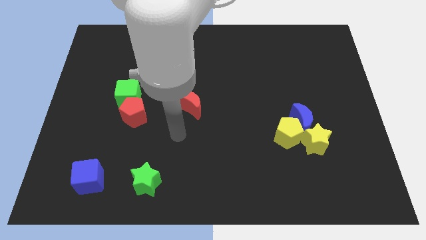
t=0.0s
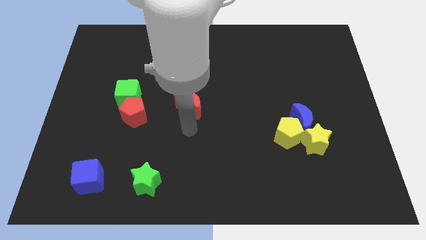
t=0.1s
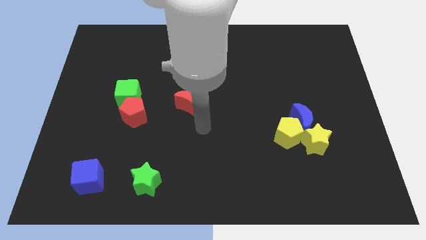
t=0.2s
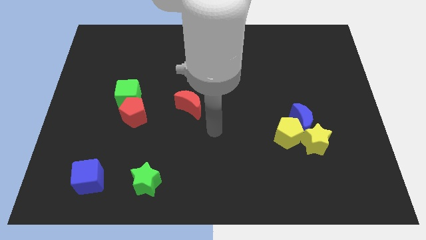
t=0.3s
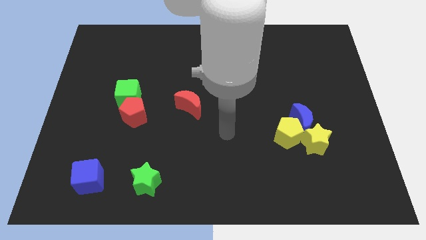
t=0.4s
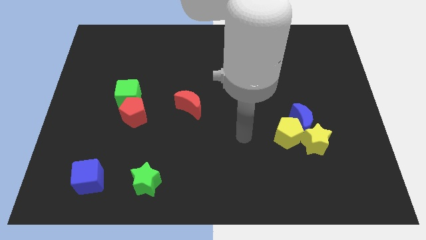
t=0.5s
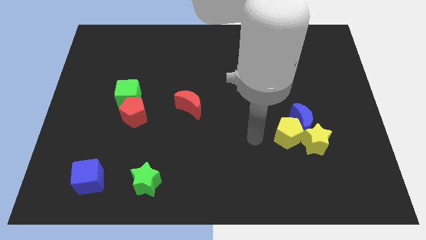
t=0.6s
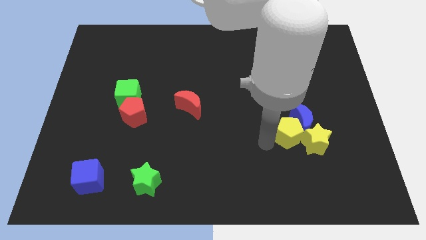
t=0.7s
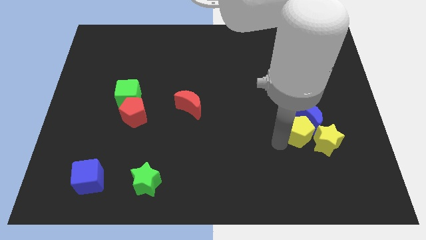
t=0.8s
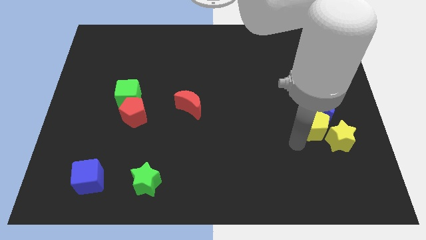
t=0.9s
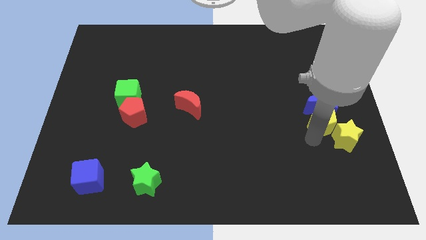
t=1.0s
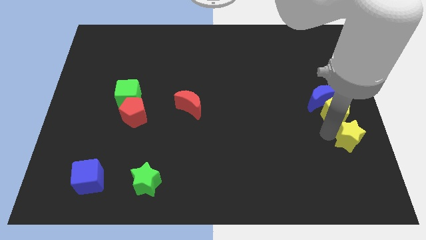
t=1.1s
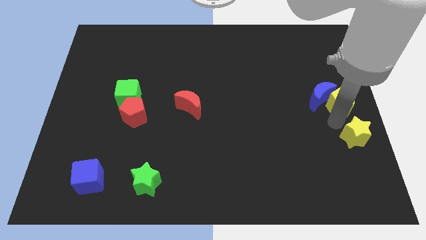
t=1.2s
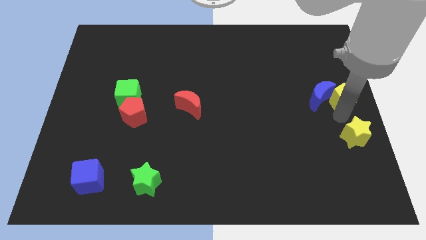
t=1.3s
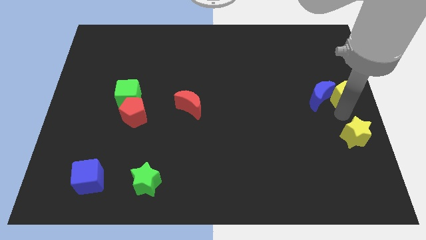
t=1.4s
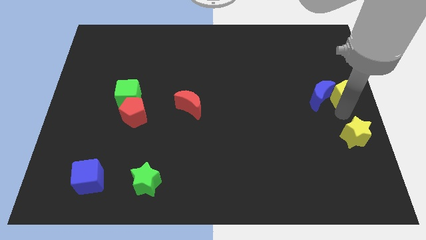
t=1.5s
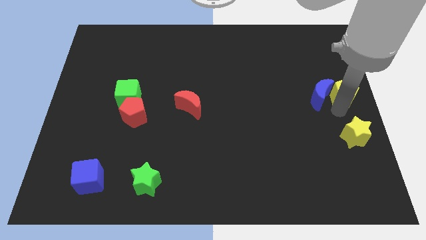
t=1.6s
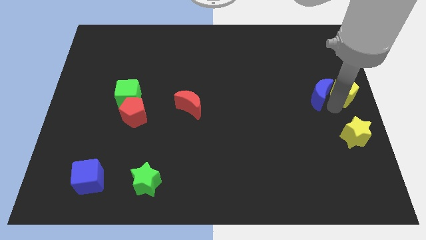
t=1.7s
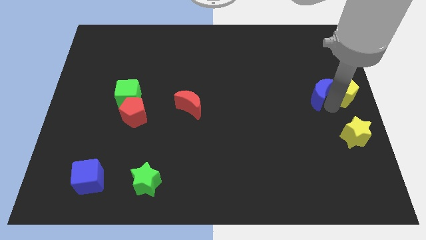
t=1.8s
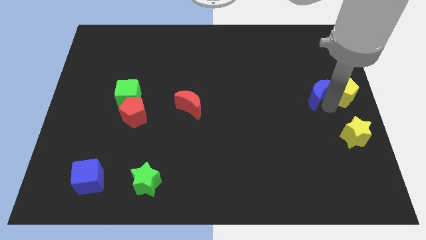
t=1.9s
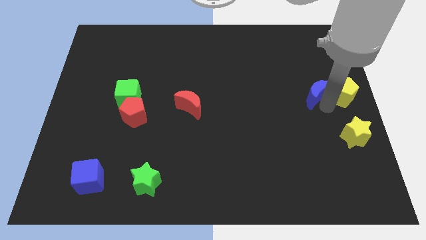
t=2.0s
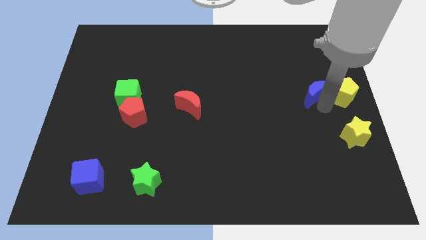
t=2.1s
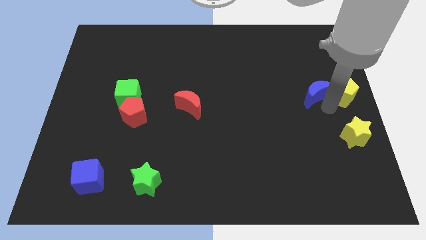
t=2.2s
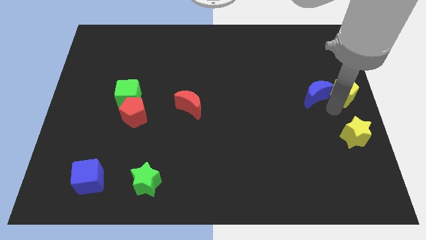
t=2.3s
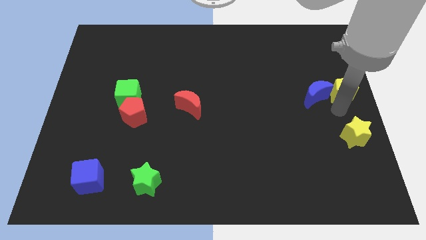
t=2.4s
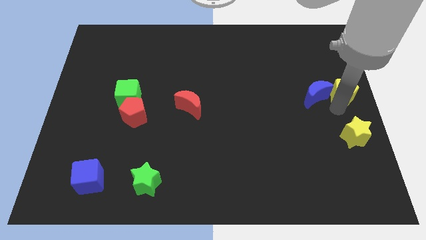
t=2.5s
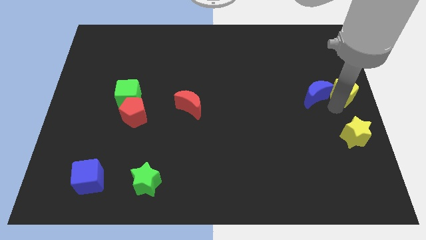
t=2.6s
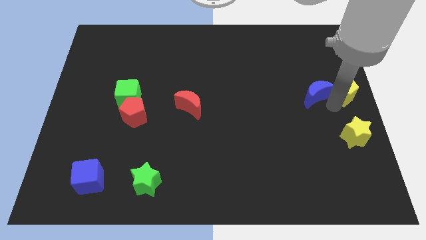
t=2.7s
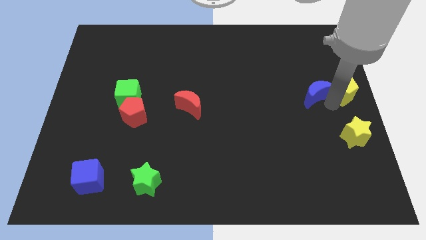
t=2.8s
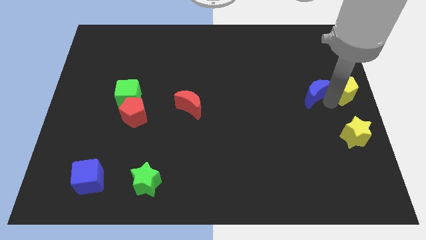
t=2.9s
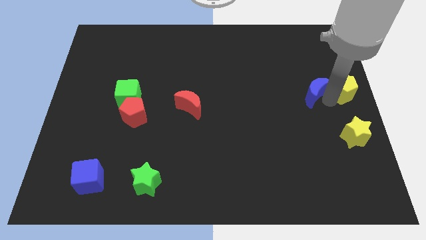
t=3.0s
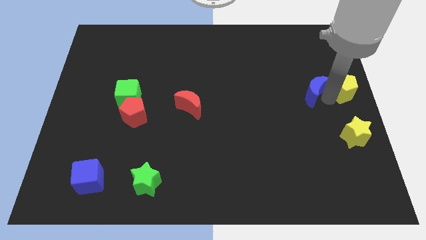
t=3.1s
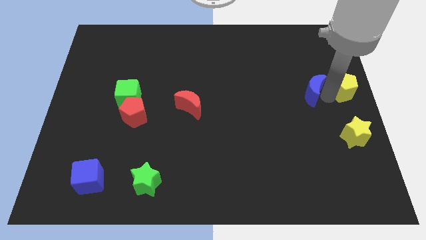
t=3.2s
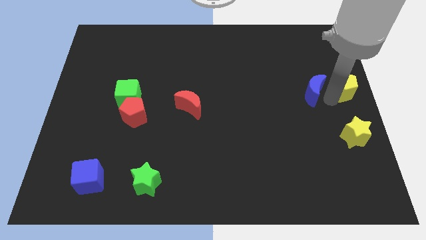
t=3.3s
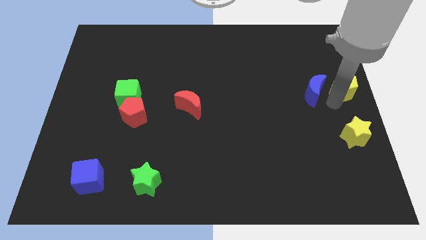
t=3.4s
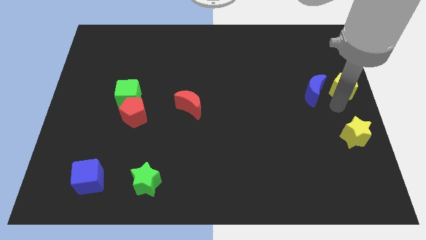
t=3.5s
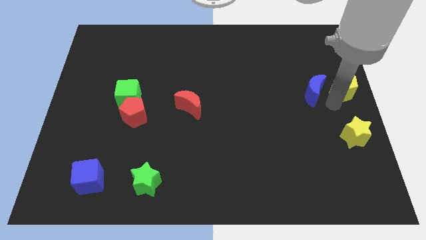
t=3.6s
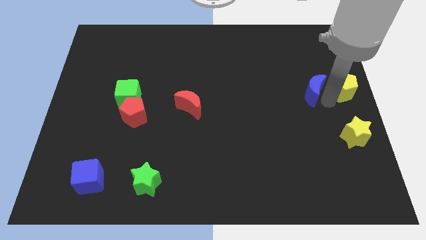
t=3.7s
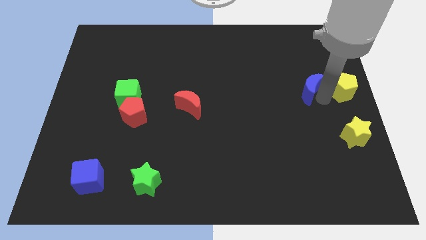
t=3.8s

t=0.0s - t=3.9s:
move the blue moon away from the yellow pentagon and yellow star

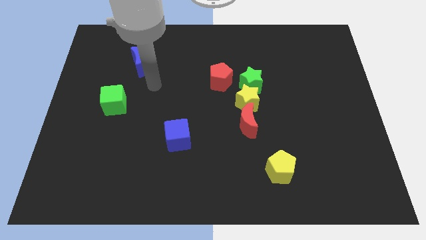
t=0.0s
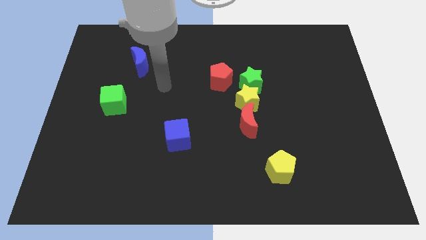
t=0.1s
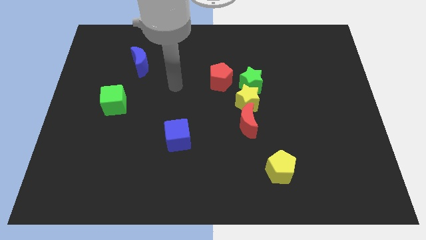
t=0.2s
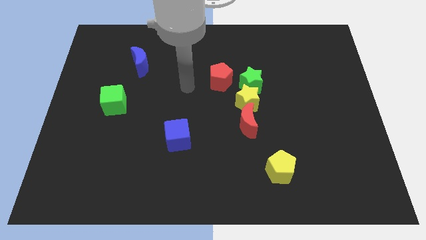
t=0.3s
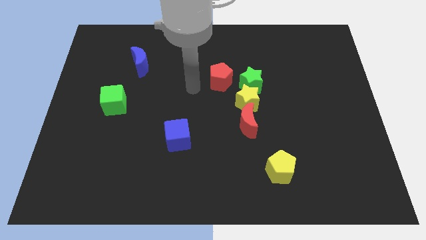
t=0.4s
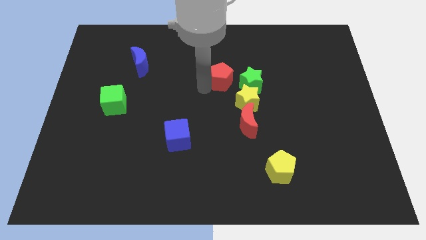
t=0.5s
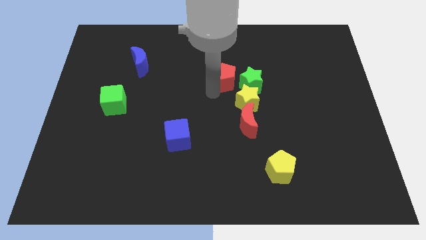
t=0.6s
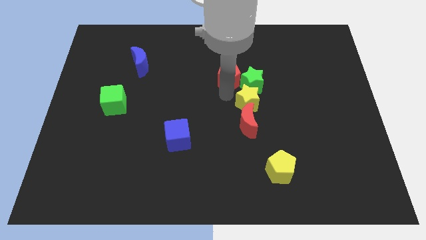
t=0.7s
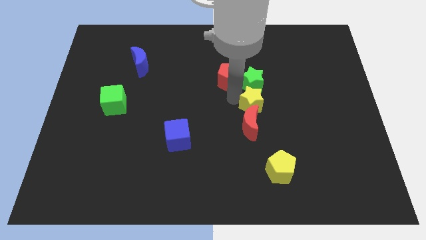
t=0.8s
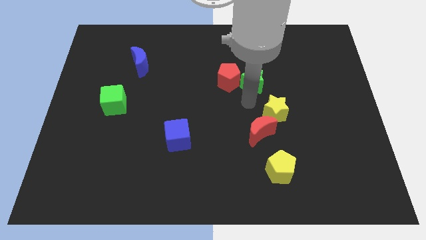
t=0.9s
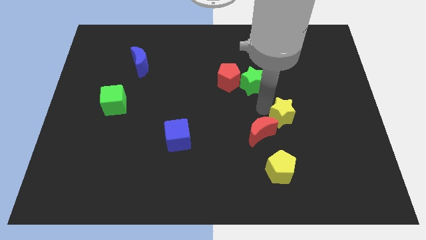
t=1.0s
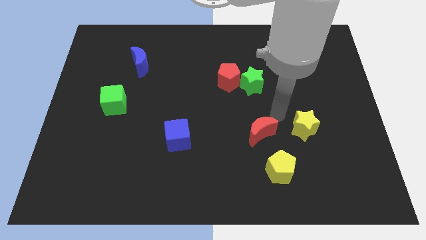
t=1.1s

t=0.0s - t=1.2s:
pull the red moon apart from the yellow star

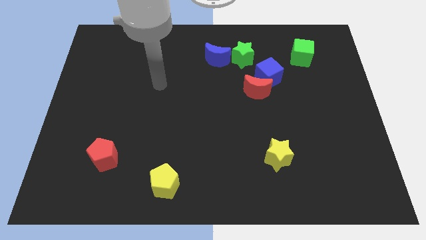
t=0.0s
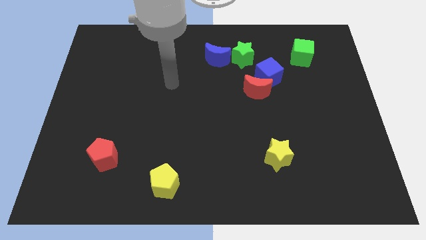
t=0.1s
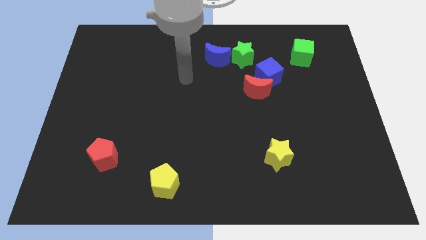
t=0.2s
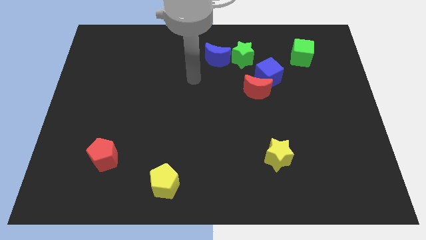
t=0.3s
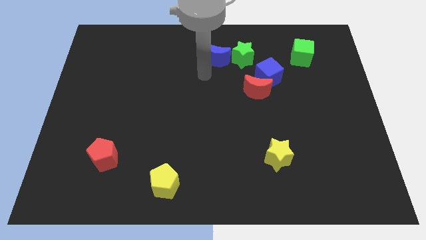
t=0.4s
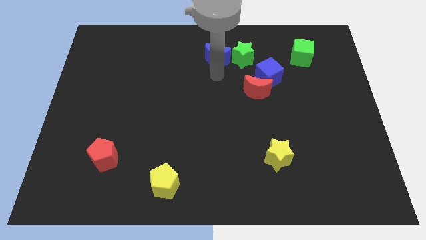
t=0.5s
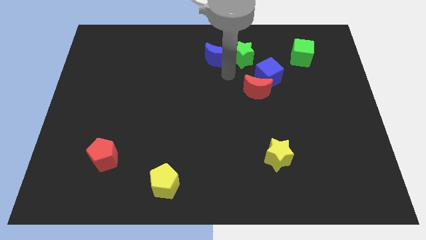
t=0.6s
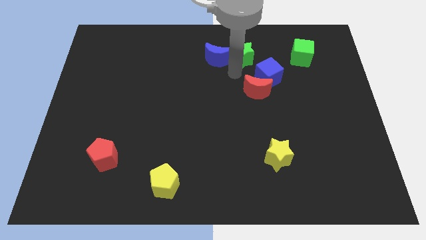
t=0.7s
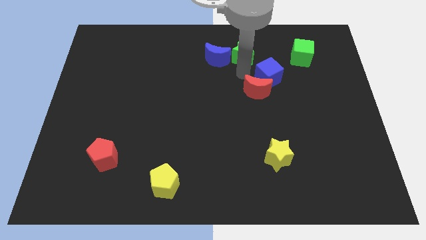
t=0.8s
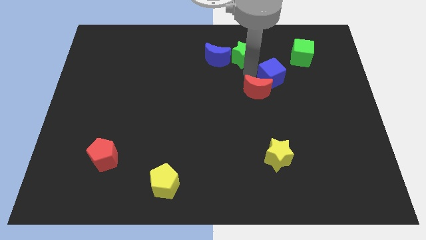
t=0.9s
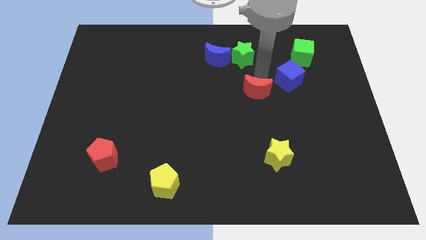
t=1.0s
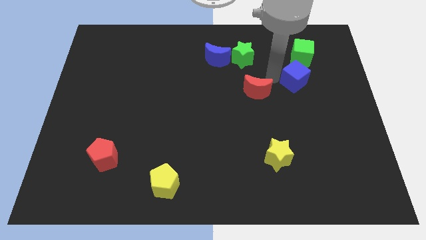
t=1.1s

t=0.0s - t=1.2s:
move the red moon away from the blue cube

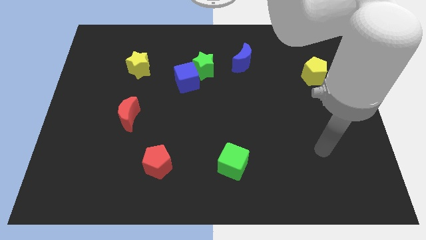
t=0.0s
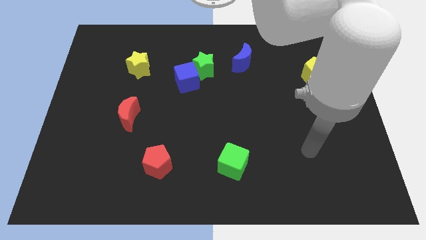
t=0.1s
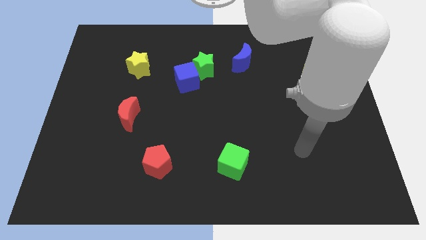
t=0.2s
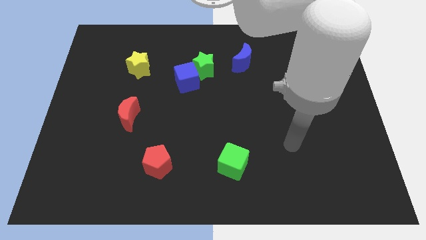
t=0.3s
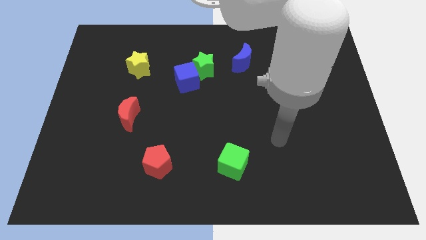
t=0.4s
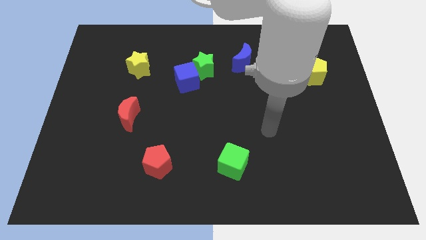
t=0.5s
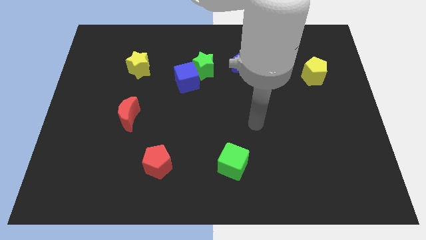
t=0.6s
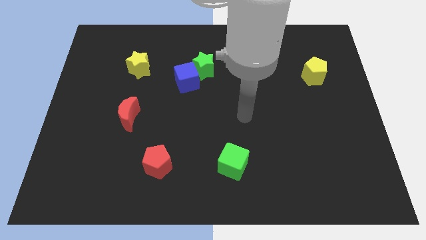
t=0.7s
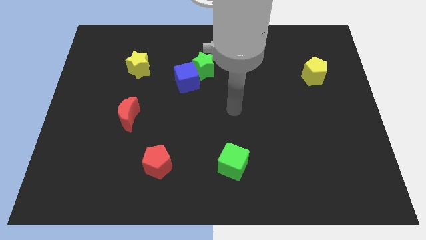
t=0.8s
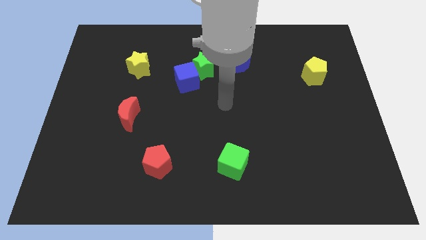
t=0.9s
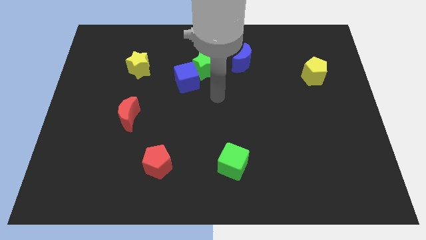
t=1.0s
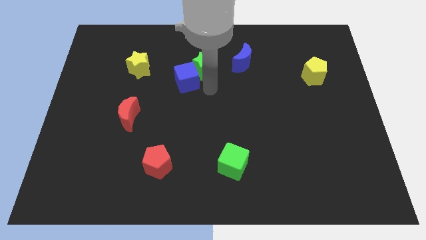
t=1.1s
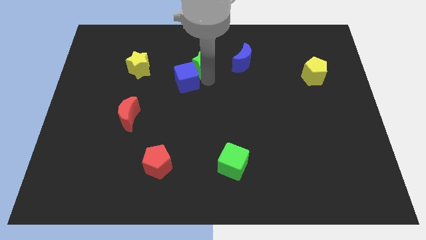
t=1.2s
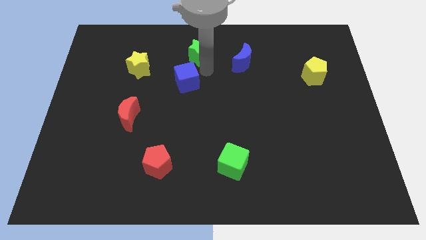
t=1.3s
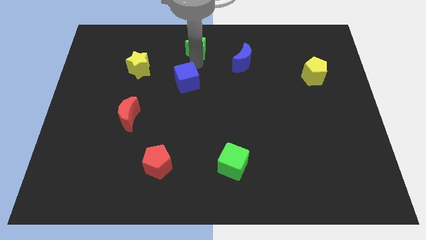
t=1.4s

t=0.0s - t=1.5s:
separate the blue cube from the green star

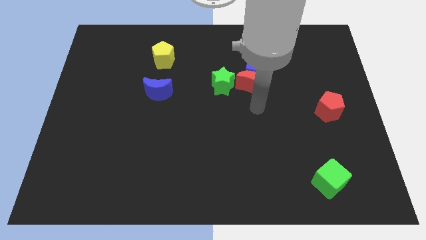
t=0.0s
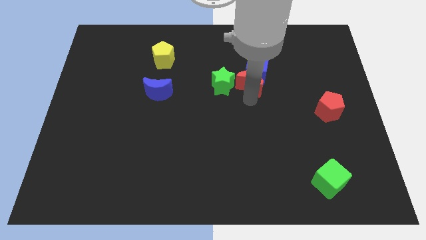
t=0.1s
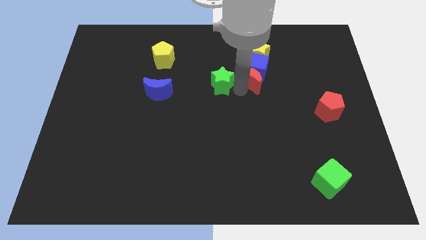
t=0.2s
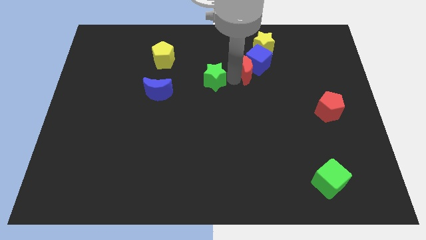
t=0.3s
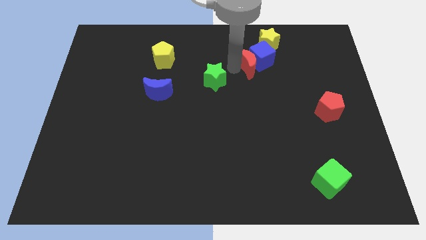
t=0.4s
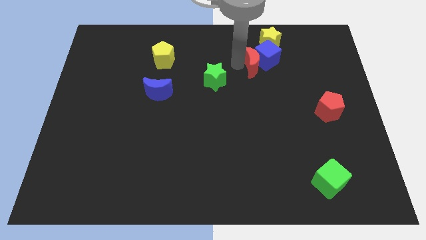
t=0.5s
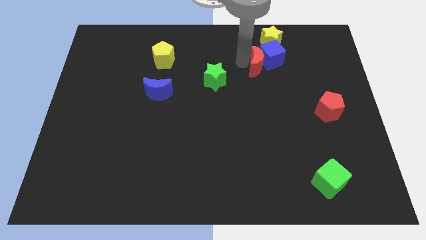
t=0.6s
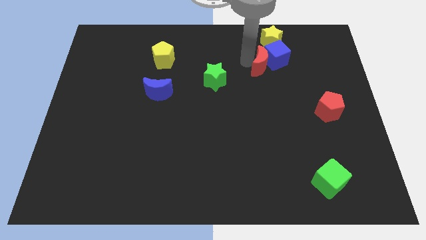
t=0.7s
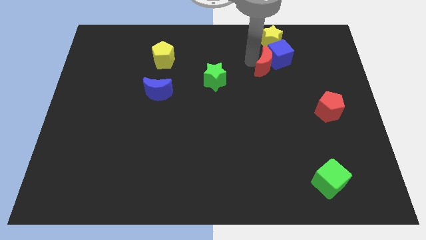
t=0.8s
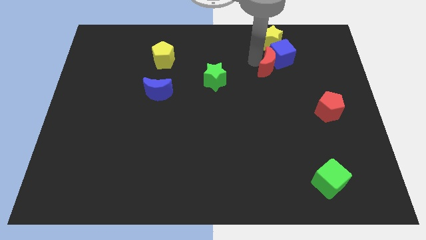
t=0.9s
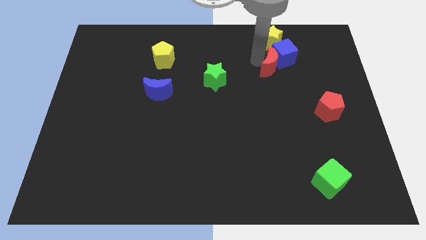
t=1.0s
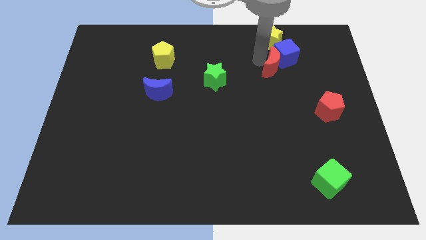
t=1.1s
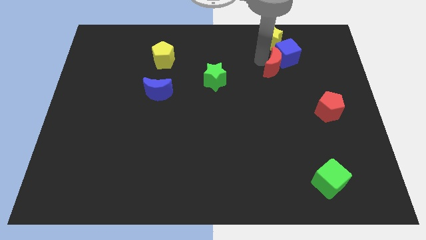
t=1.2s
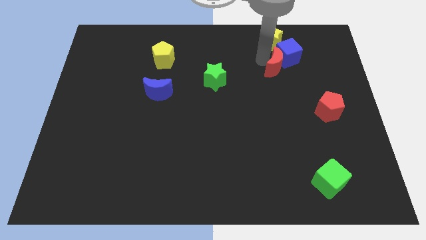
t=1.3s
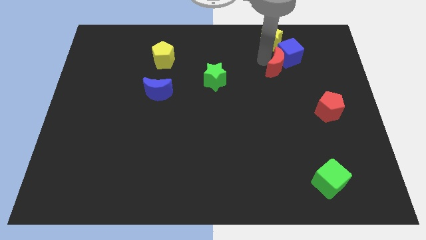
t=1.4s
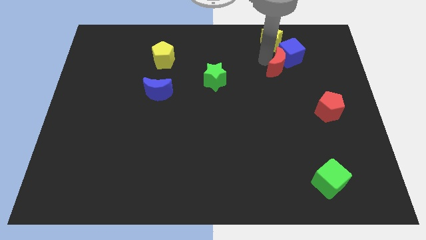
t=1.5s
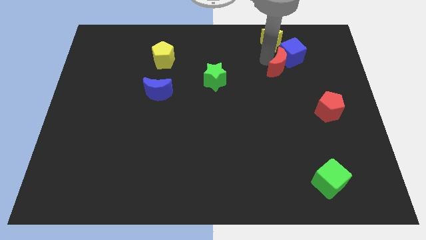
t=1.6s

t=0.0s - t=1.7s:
separate the blue cube from the group
